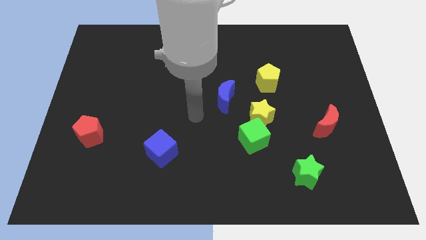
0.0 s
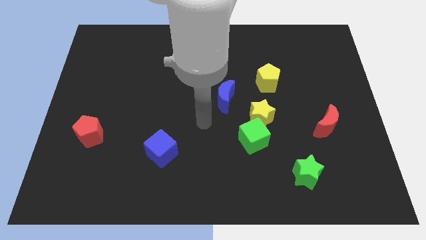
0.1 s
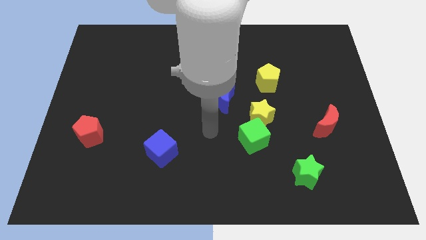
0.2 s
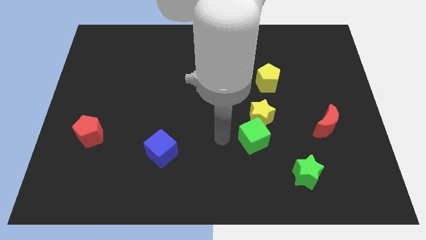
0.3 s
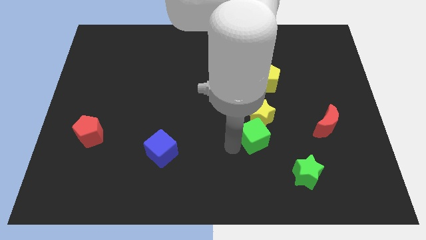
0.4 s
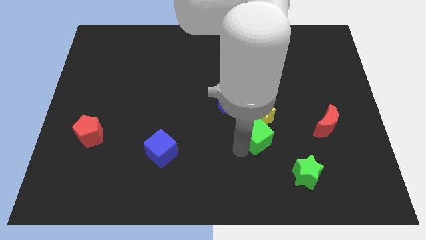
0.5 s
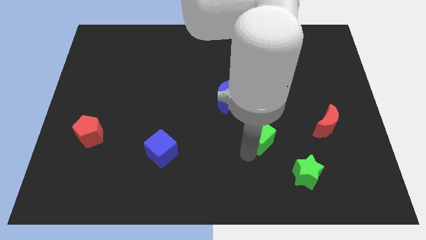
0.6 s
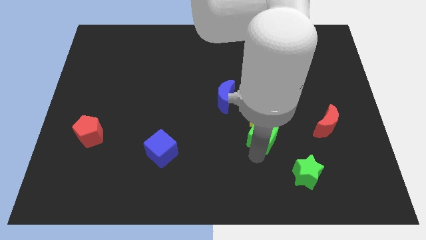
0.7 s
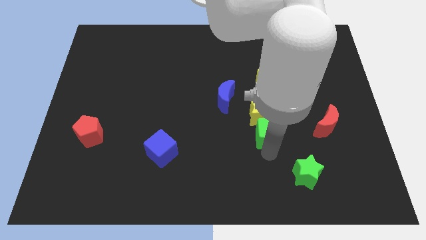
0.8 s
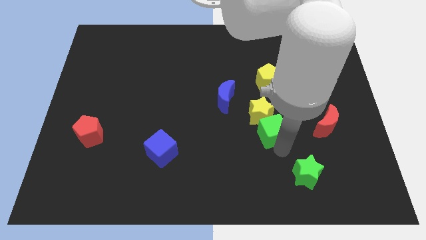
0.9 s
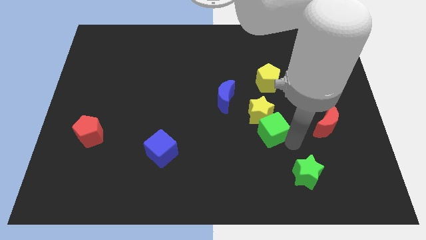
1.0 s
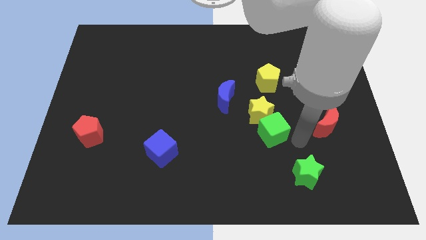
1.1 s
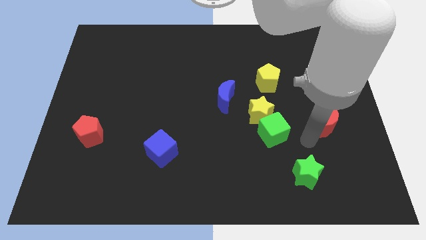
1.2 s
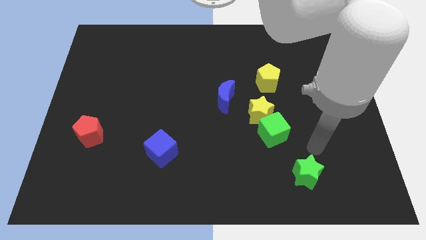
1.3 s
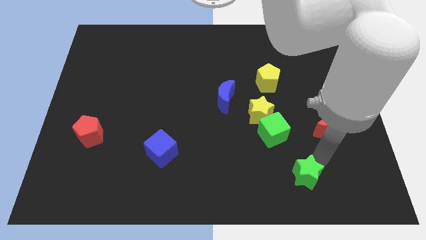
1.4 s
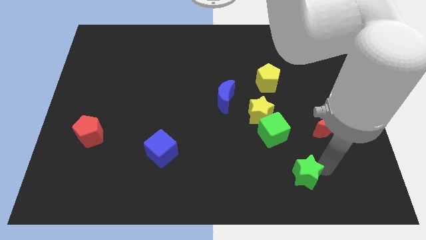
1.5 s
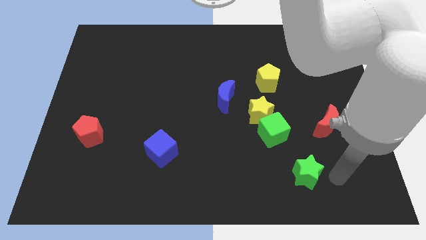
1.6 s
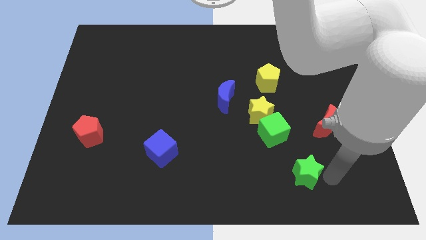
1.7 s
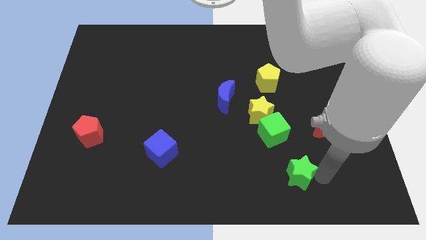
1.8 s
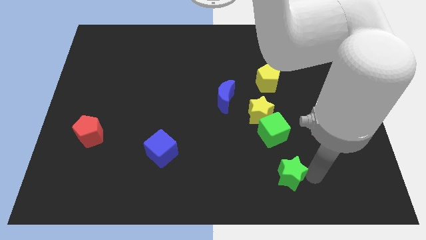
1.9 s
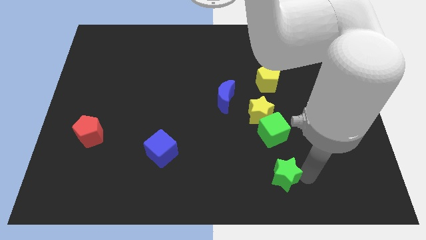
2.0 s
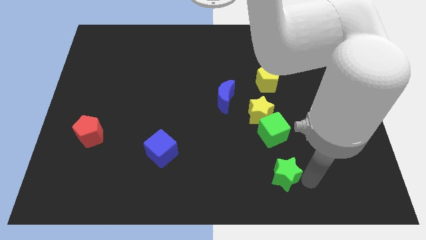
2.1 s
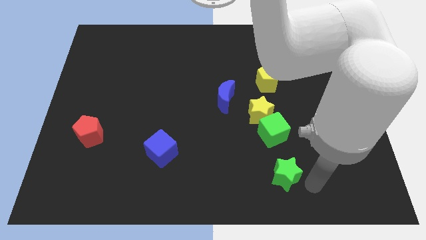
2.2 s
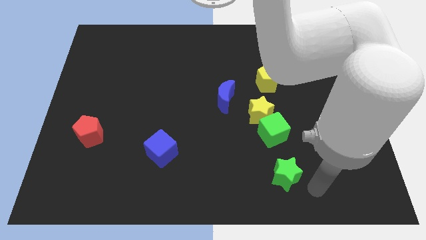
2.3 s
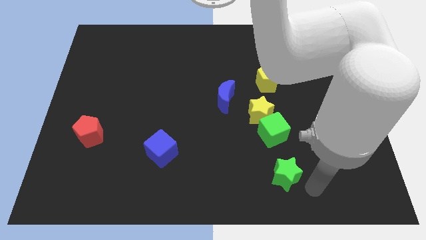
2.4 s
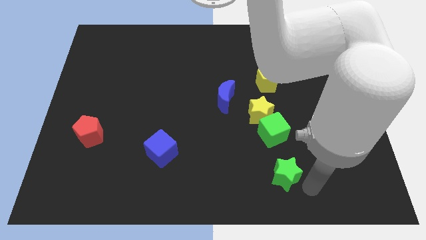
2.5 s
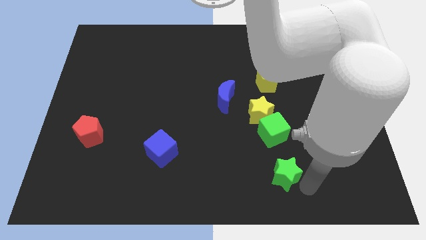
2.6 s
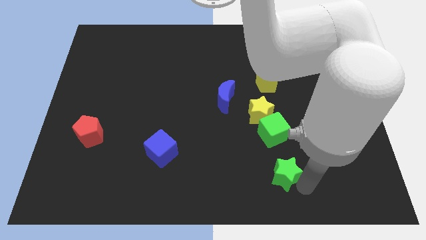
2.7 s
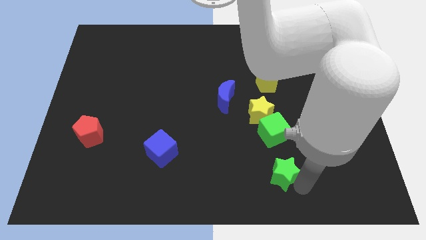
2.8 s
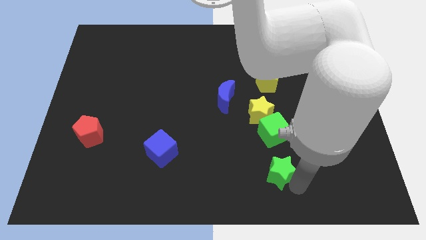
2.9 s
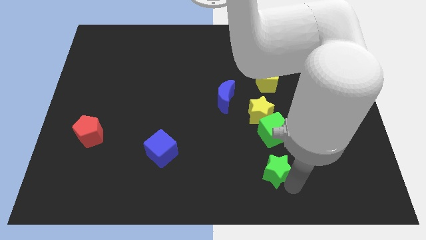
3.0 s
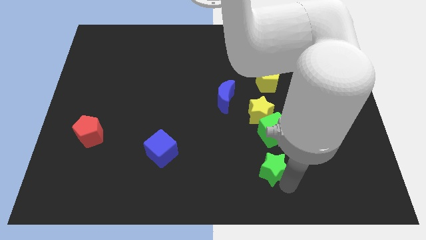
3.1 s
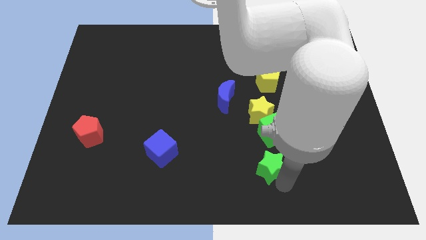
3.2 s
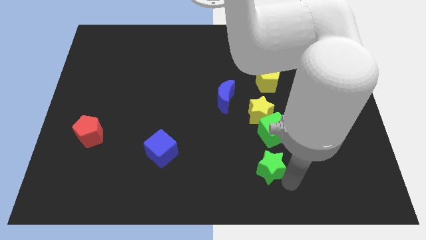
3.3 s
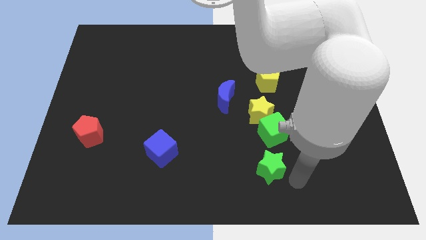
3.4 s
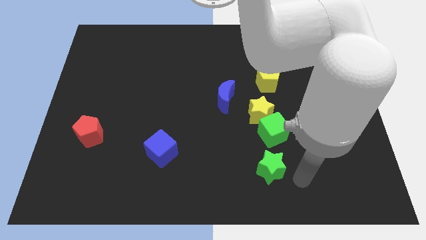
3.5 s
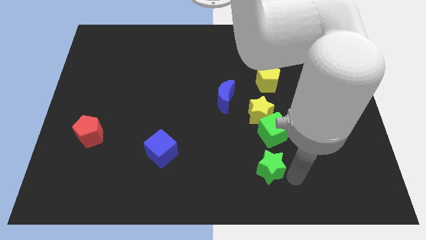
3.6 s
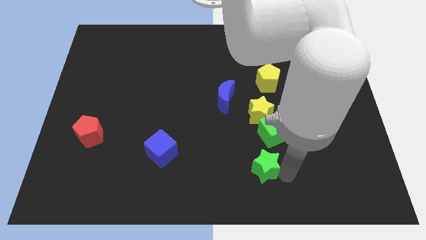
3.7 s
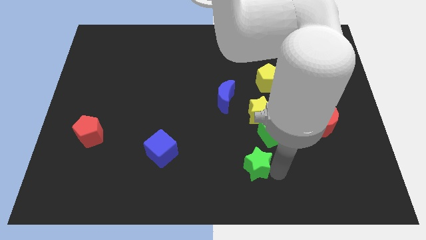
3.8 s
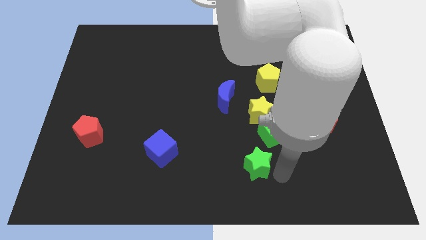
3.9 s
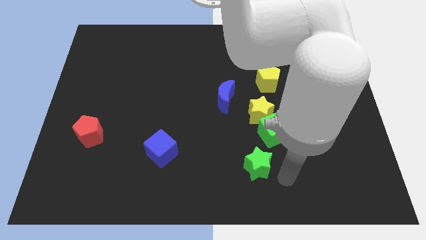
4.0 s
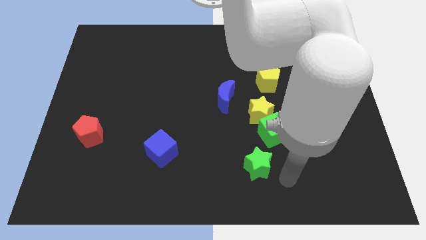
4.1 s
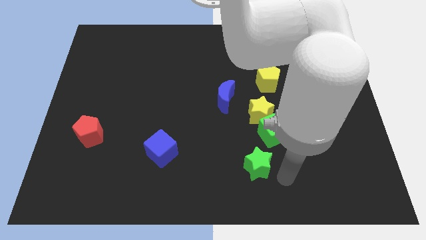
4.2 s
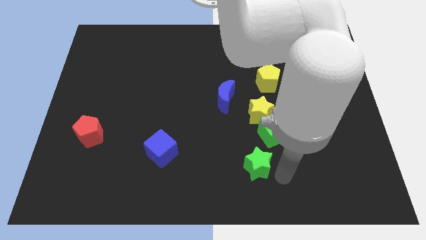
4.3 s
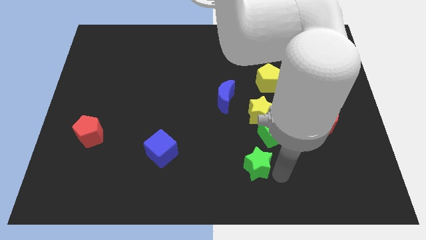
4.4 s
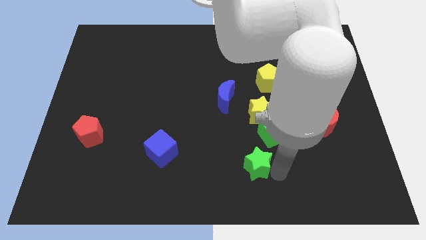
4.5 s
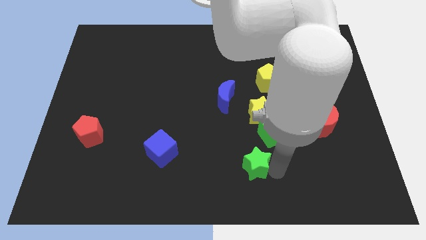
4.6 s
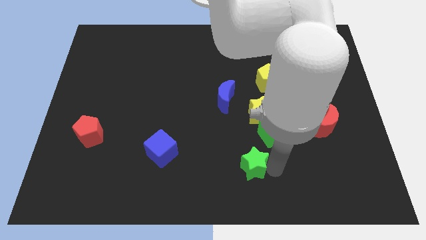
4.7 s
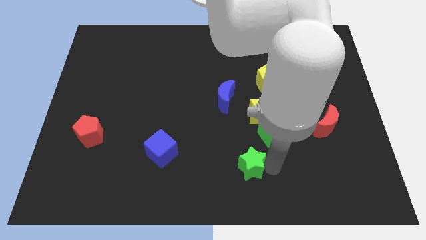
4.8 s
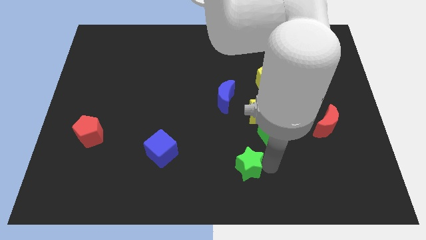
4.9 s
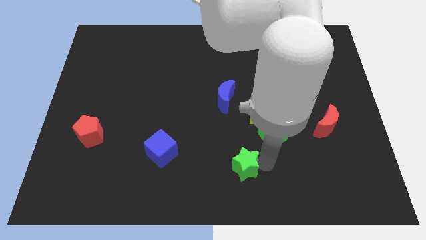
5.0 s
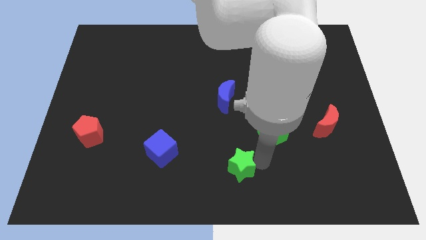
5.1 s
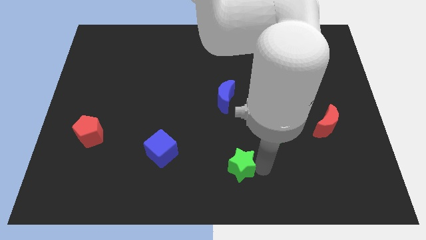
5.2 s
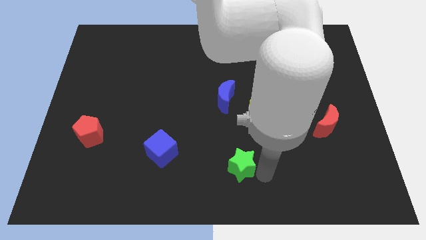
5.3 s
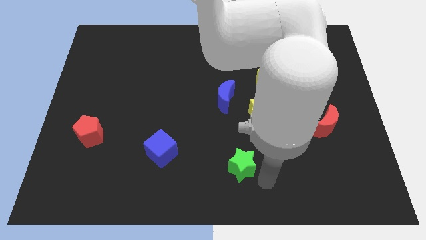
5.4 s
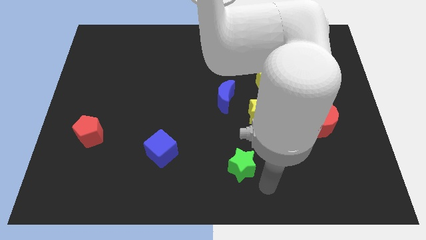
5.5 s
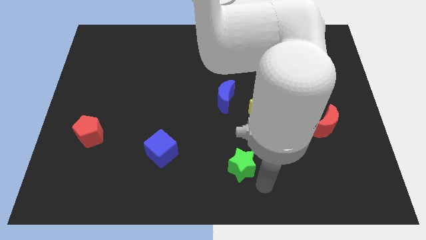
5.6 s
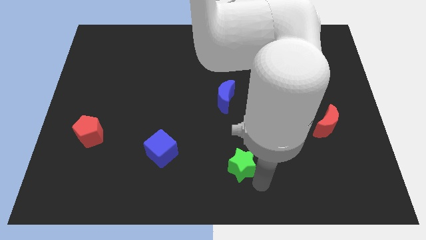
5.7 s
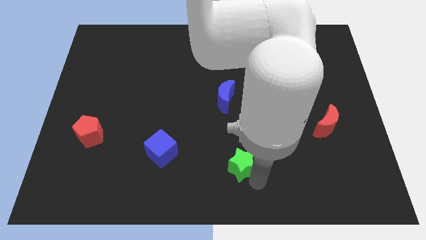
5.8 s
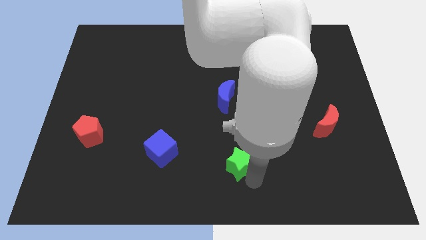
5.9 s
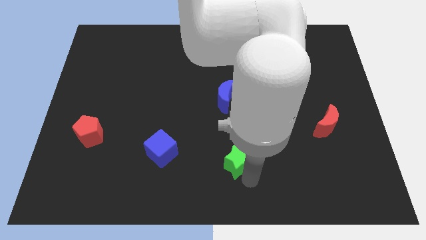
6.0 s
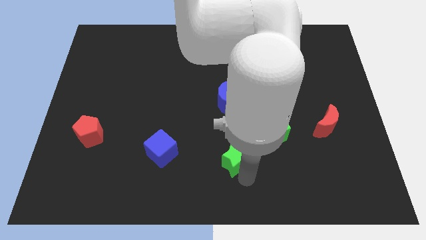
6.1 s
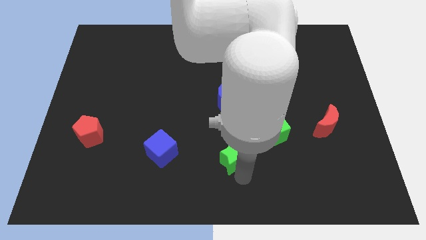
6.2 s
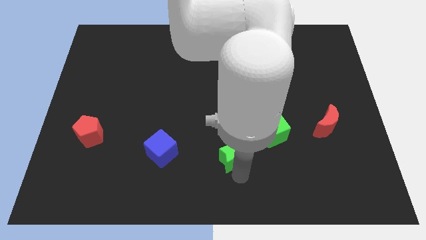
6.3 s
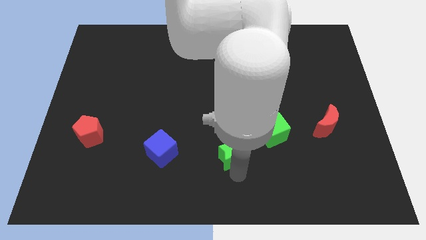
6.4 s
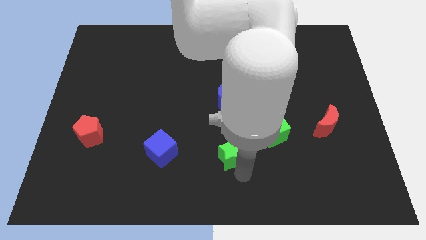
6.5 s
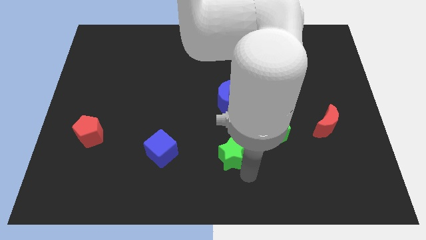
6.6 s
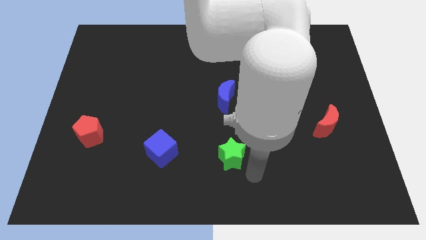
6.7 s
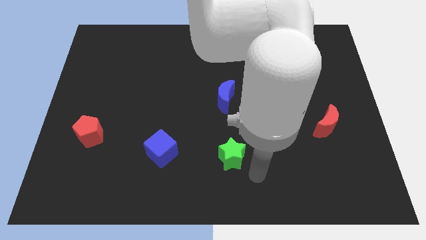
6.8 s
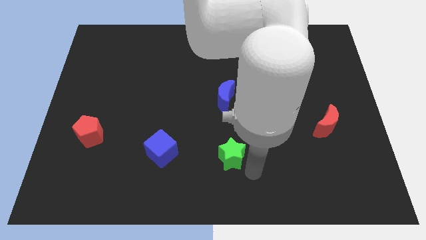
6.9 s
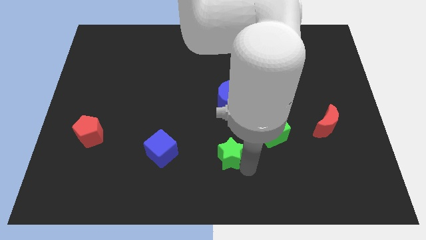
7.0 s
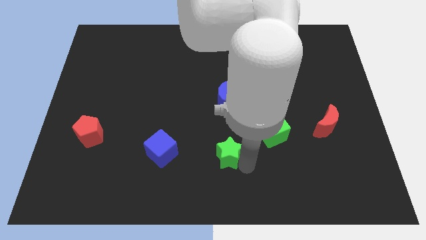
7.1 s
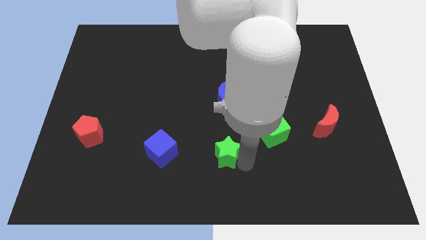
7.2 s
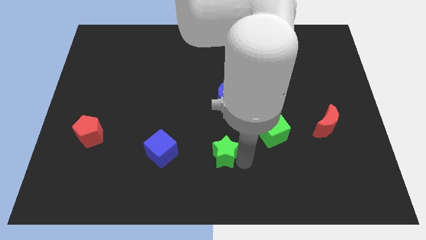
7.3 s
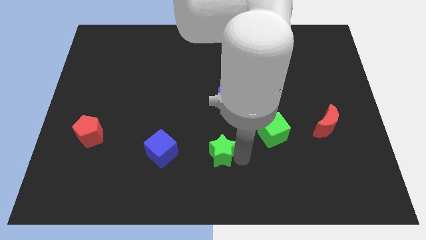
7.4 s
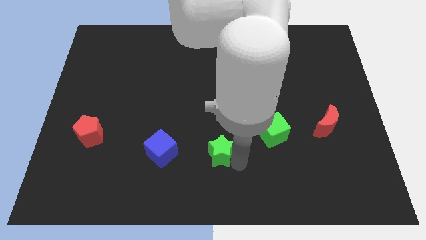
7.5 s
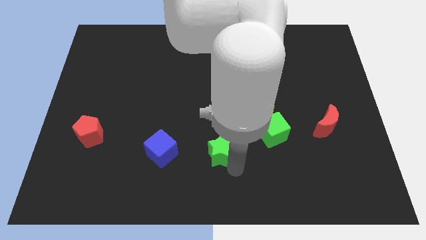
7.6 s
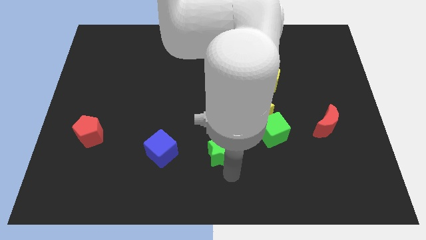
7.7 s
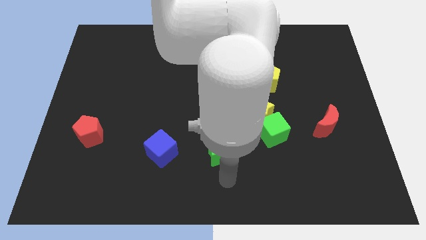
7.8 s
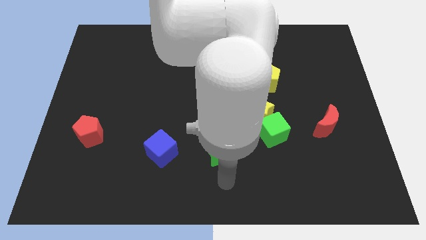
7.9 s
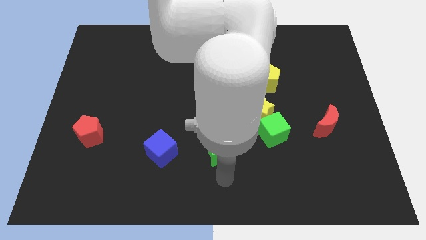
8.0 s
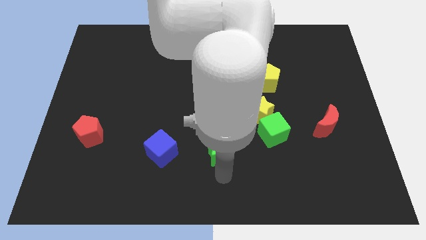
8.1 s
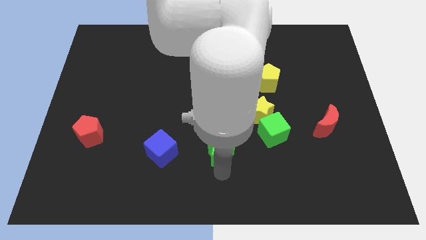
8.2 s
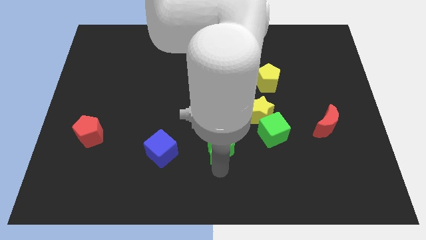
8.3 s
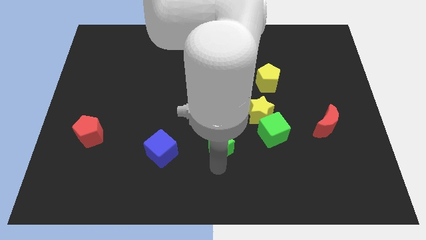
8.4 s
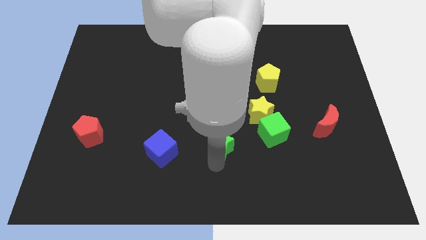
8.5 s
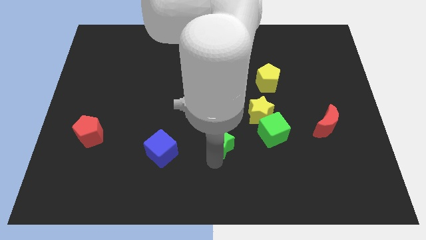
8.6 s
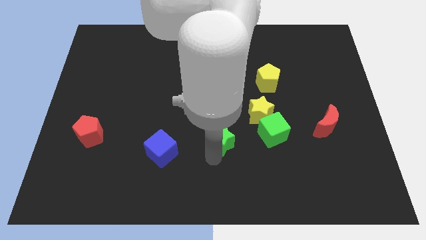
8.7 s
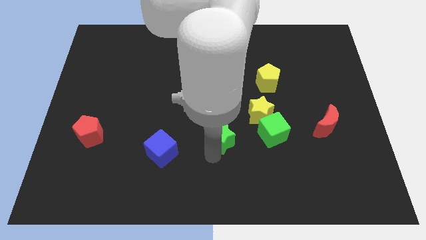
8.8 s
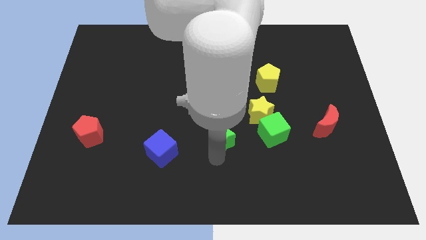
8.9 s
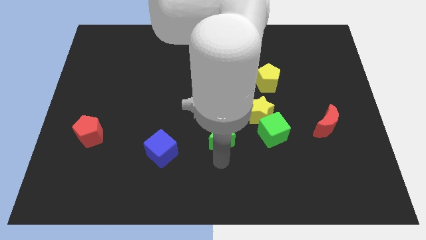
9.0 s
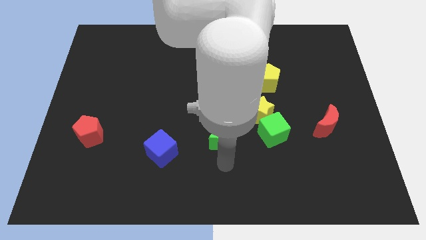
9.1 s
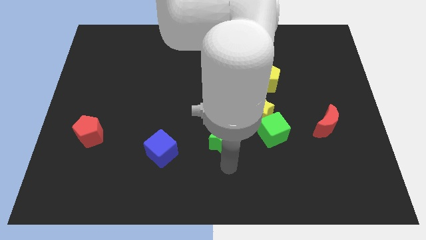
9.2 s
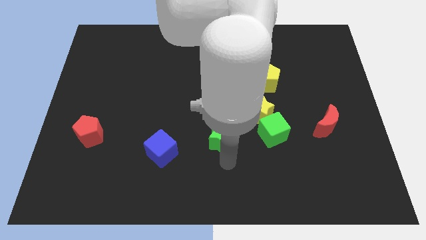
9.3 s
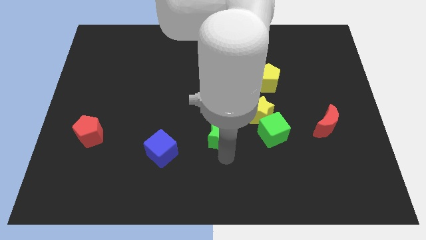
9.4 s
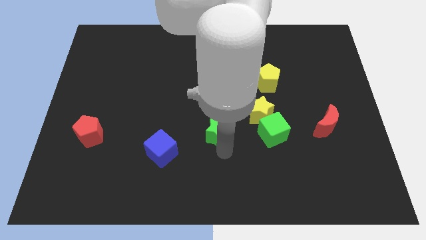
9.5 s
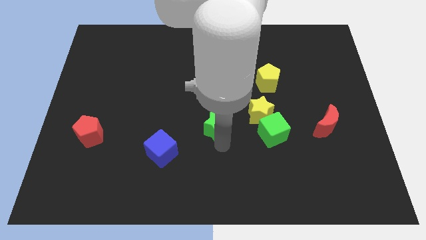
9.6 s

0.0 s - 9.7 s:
move the green star up and left diagonally
